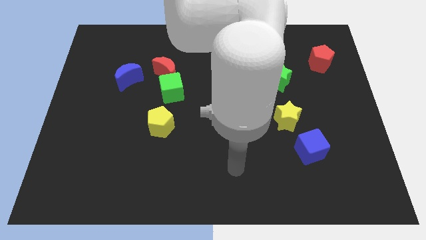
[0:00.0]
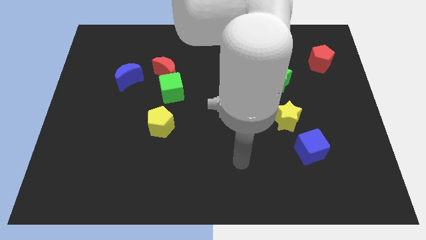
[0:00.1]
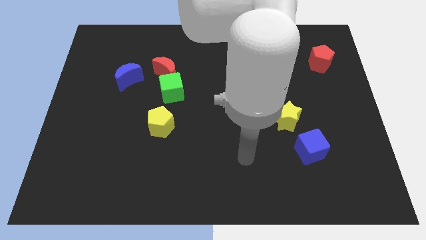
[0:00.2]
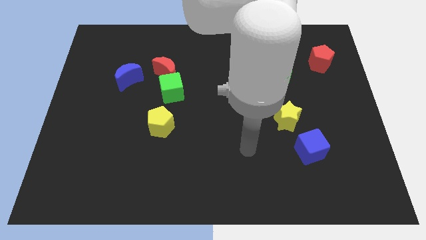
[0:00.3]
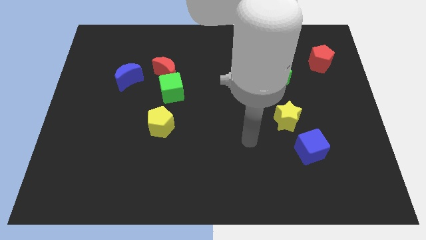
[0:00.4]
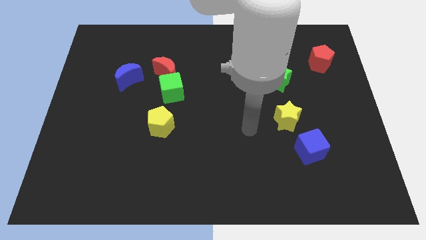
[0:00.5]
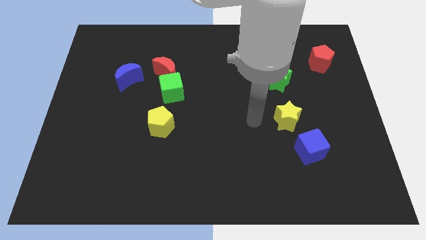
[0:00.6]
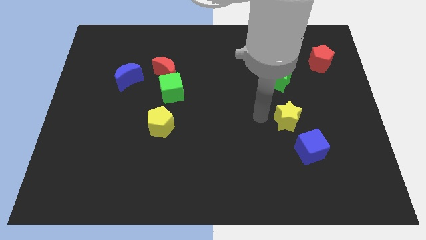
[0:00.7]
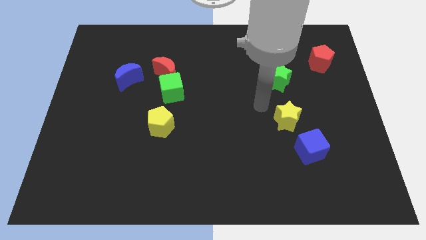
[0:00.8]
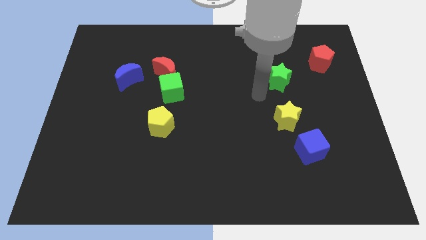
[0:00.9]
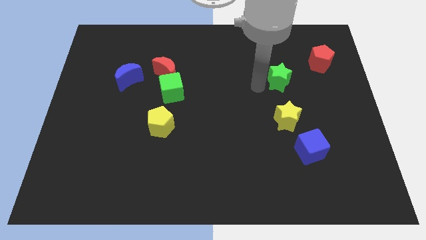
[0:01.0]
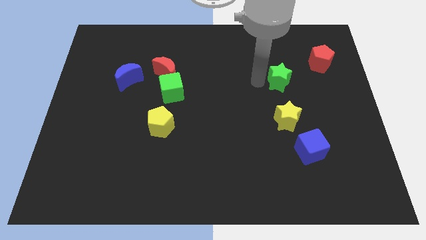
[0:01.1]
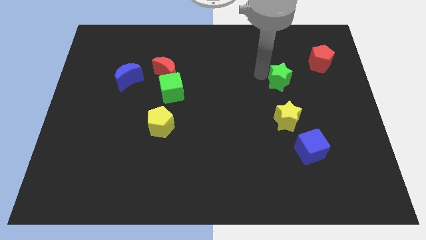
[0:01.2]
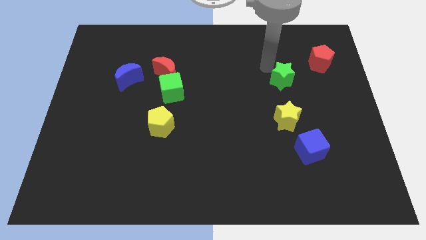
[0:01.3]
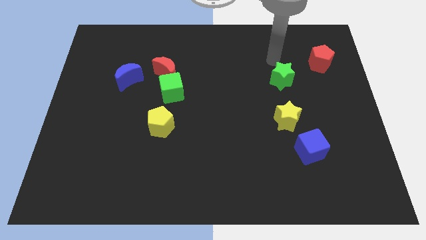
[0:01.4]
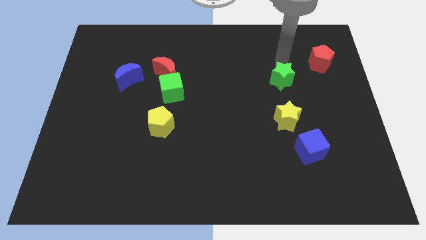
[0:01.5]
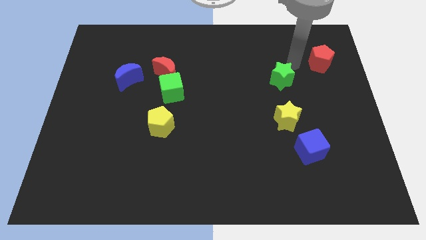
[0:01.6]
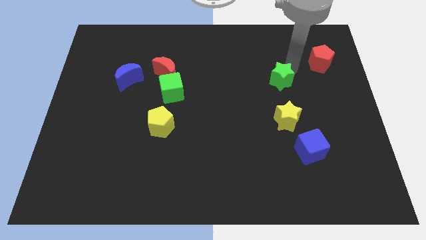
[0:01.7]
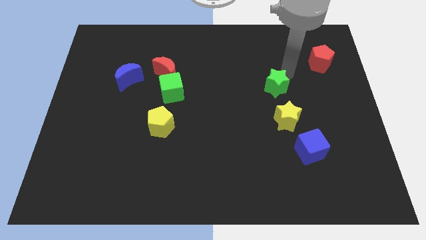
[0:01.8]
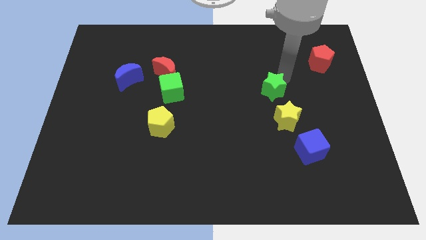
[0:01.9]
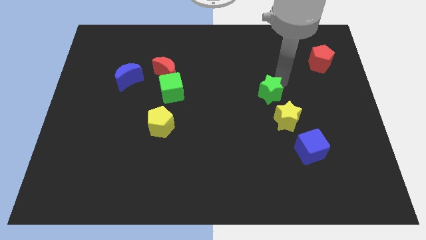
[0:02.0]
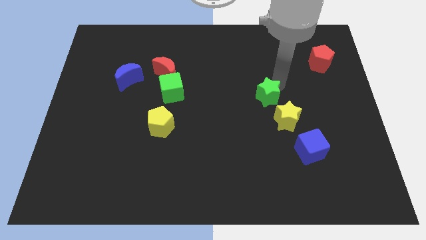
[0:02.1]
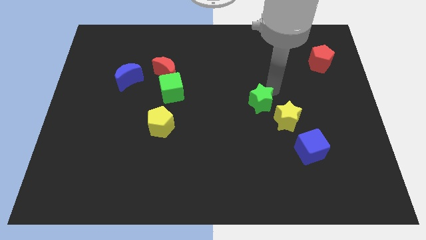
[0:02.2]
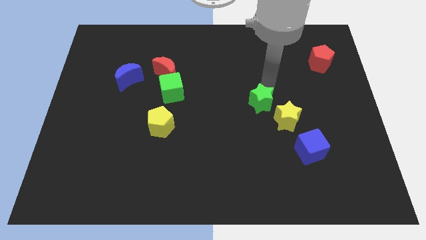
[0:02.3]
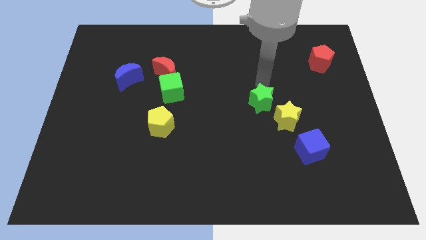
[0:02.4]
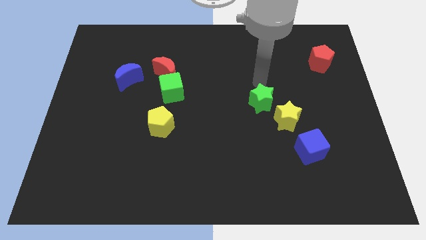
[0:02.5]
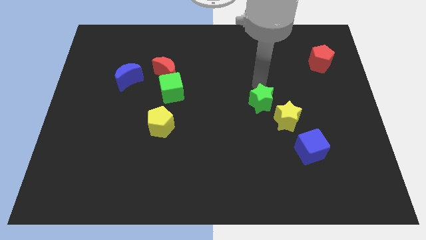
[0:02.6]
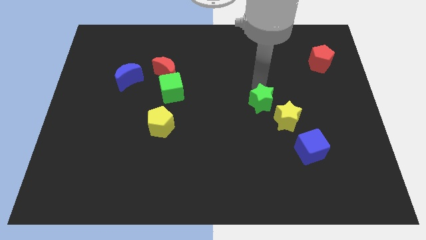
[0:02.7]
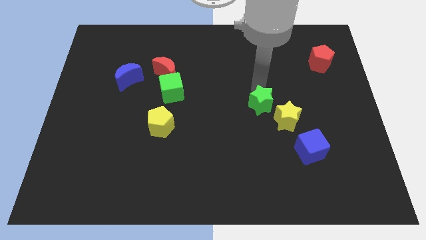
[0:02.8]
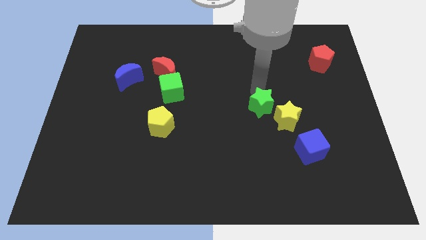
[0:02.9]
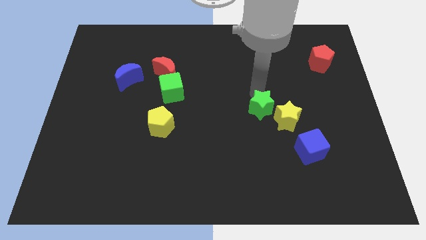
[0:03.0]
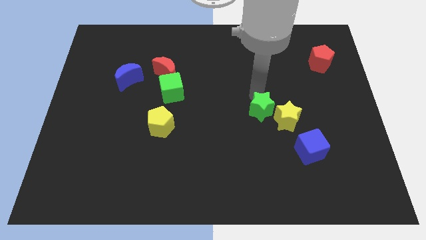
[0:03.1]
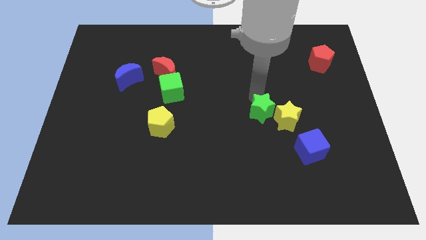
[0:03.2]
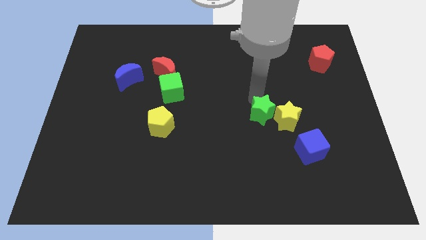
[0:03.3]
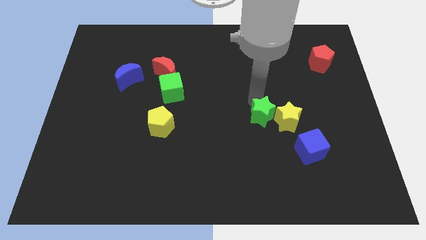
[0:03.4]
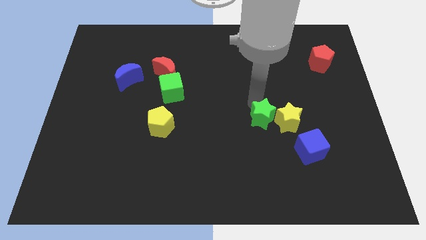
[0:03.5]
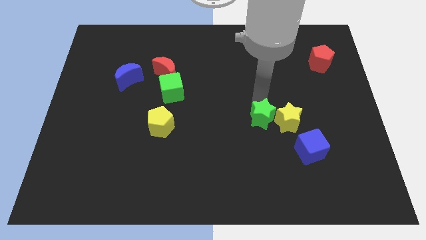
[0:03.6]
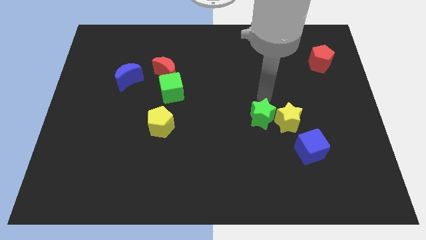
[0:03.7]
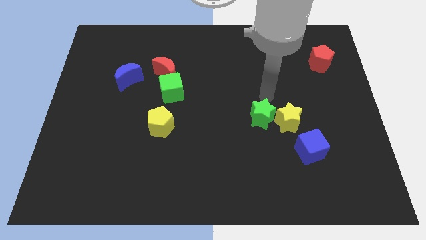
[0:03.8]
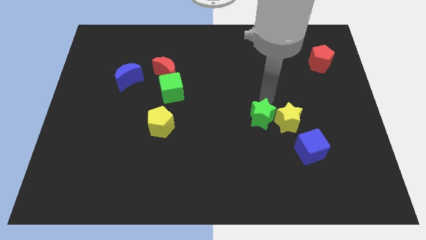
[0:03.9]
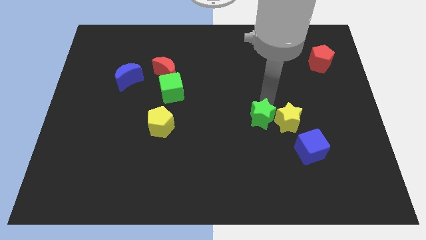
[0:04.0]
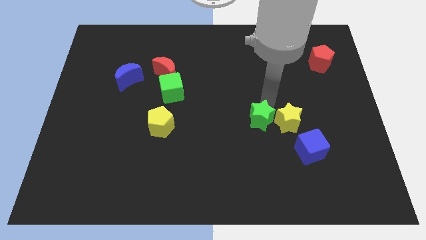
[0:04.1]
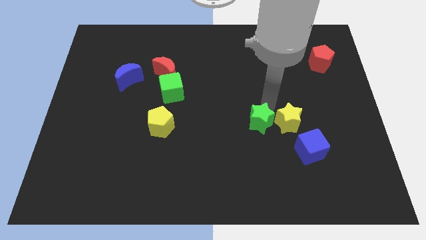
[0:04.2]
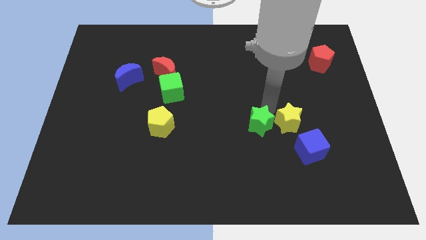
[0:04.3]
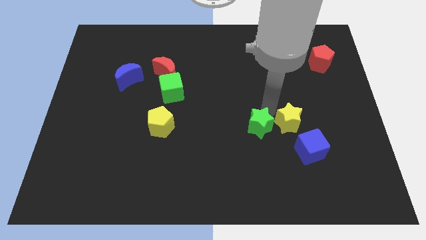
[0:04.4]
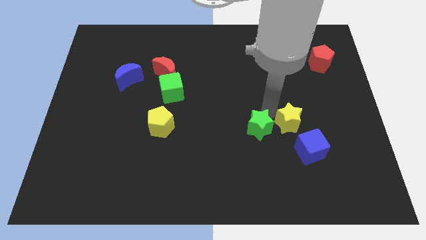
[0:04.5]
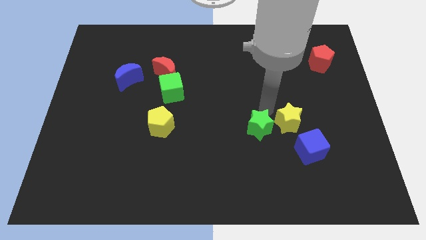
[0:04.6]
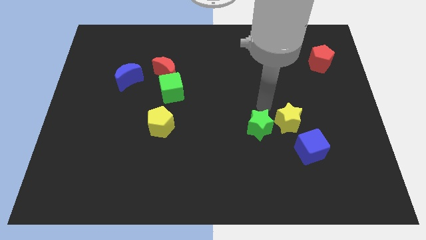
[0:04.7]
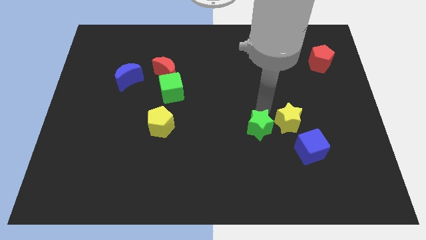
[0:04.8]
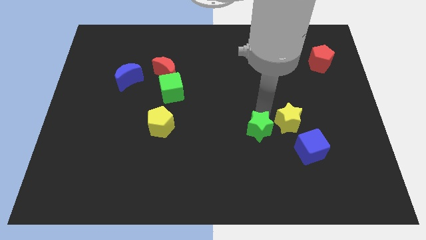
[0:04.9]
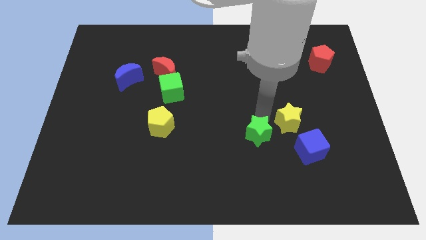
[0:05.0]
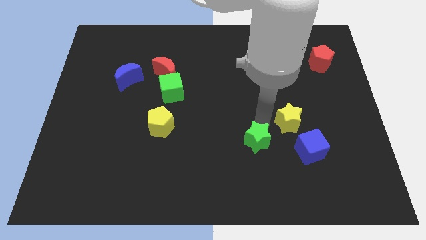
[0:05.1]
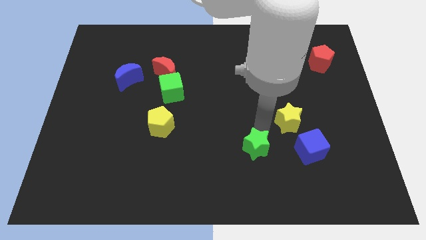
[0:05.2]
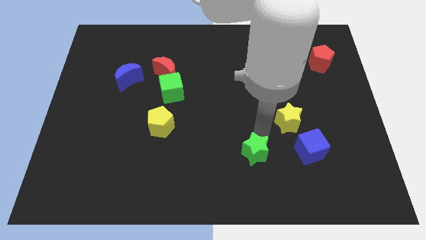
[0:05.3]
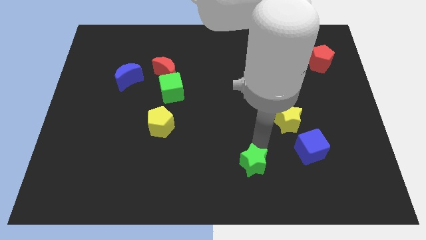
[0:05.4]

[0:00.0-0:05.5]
slide the green star to the bottom

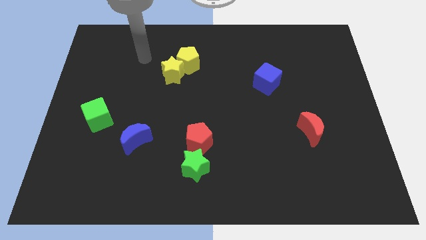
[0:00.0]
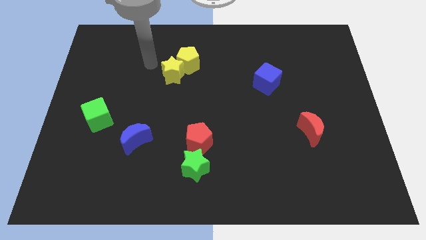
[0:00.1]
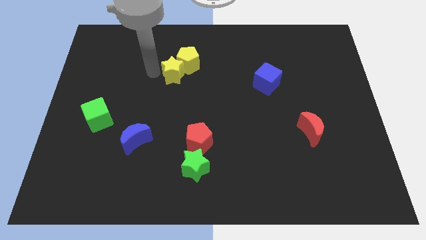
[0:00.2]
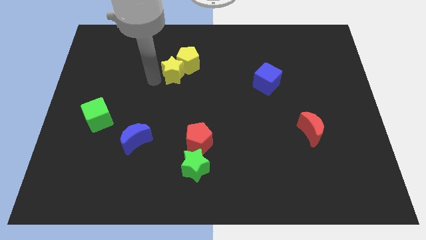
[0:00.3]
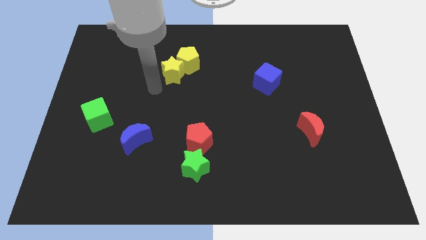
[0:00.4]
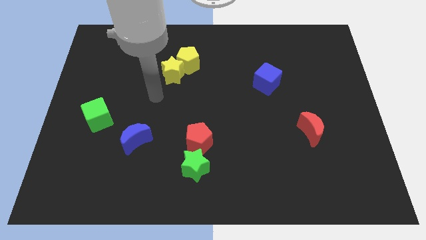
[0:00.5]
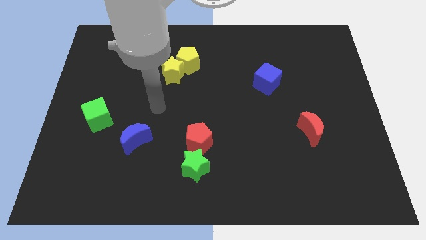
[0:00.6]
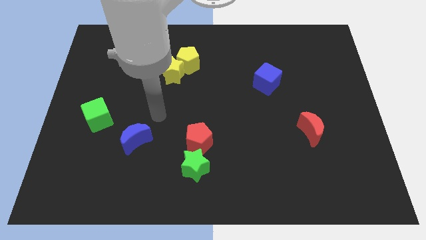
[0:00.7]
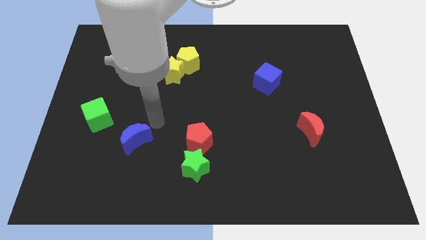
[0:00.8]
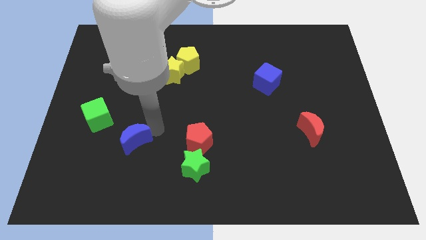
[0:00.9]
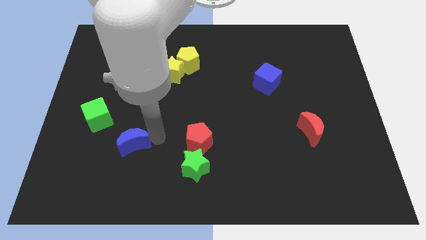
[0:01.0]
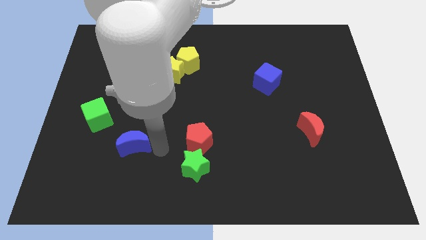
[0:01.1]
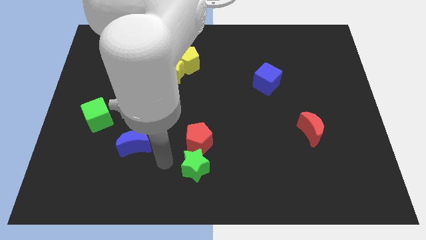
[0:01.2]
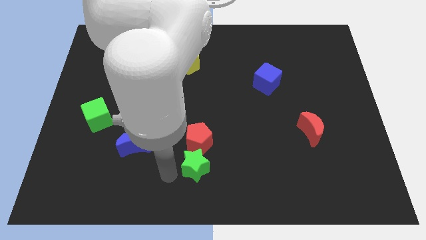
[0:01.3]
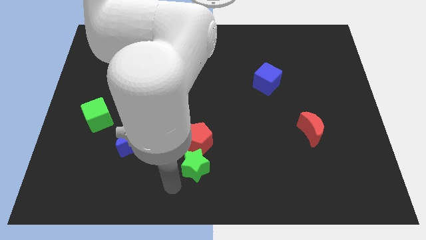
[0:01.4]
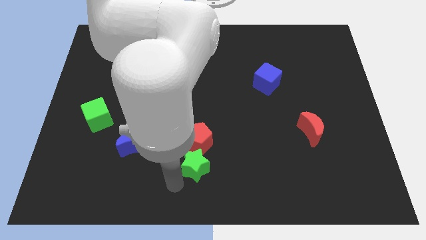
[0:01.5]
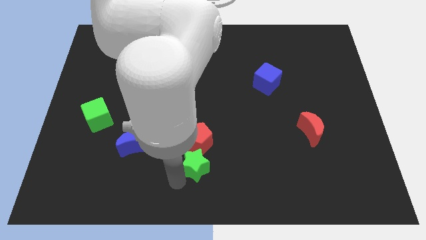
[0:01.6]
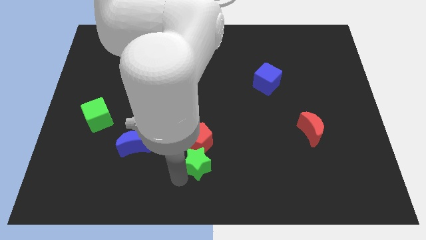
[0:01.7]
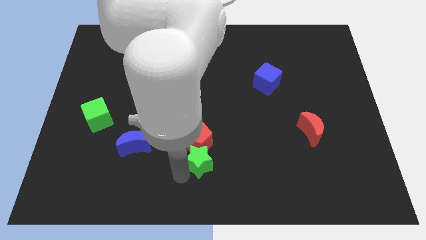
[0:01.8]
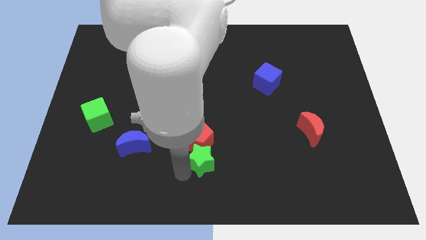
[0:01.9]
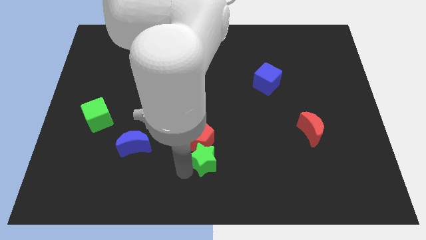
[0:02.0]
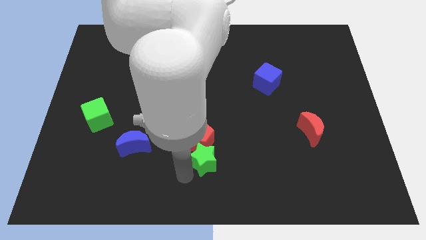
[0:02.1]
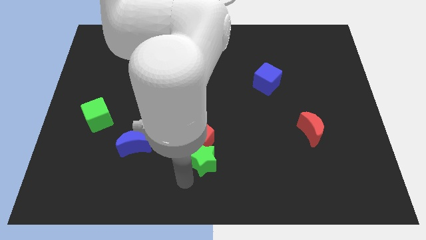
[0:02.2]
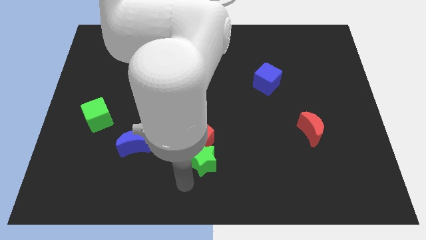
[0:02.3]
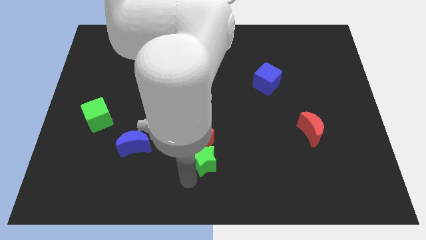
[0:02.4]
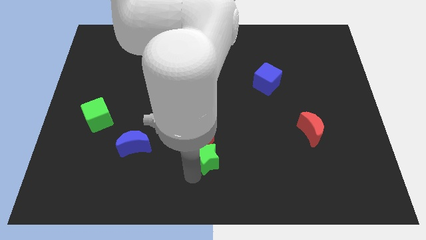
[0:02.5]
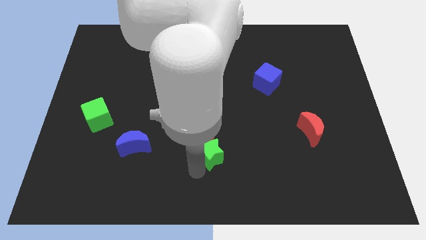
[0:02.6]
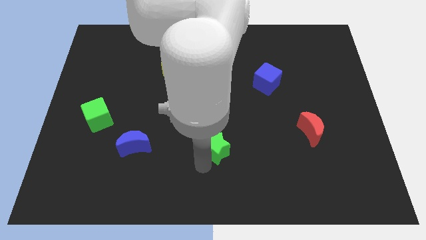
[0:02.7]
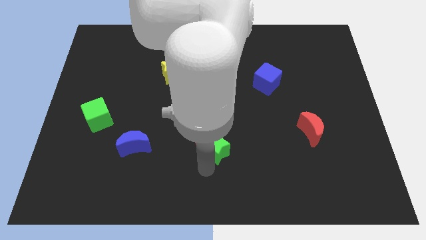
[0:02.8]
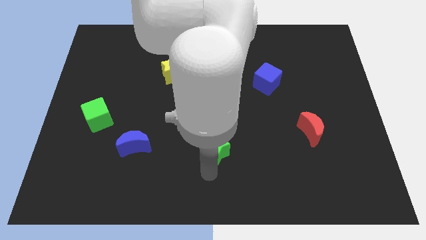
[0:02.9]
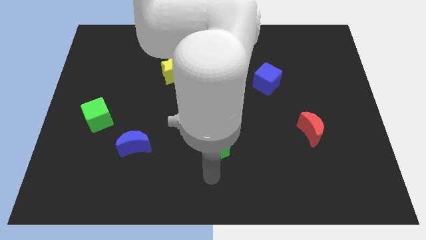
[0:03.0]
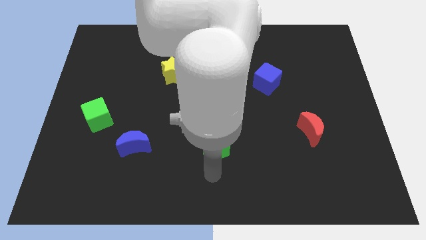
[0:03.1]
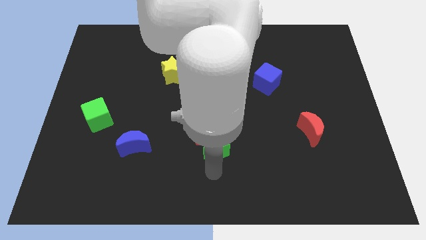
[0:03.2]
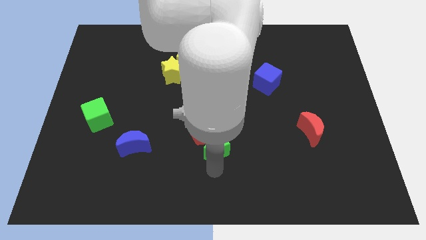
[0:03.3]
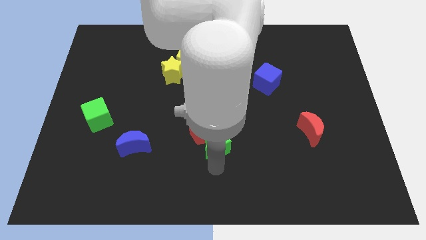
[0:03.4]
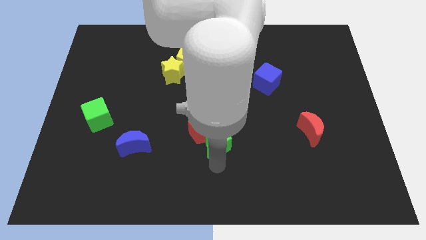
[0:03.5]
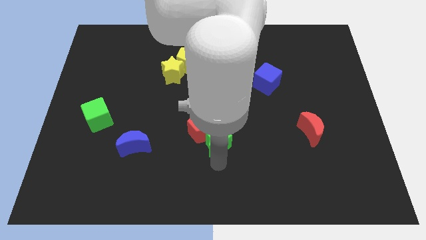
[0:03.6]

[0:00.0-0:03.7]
slide the green star to the middle of the board
